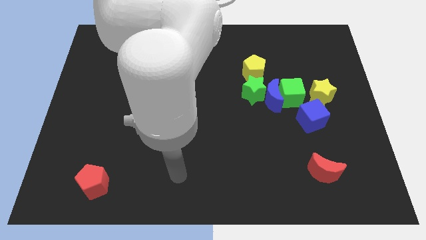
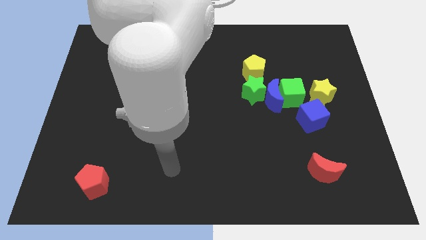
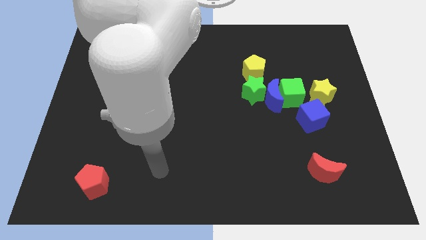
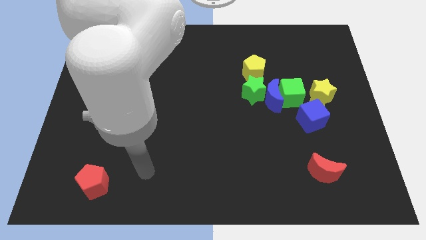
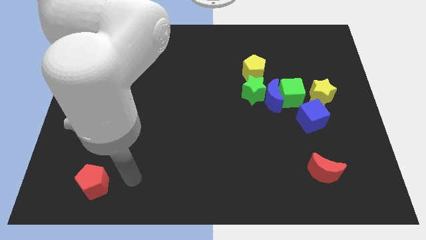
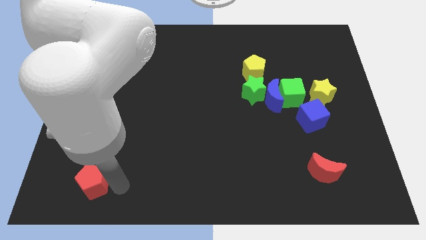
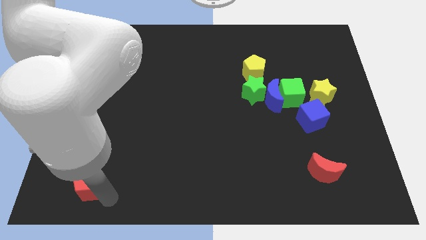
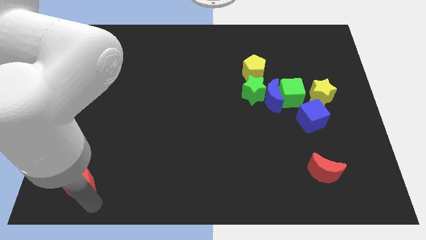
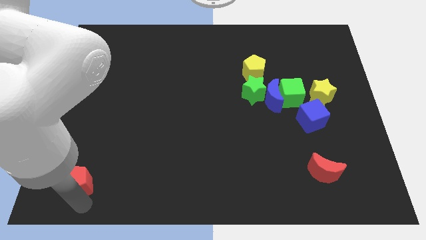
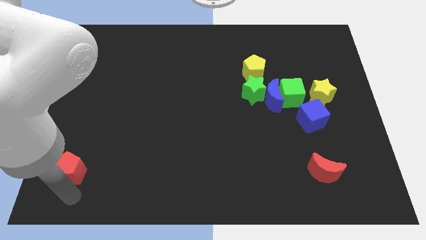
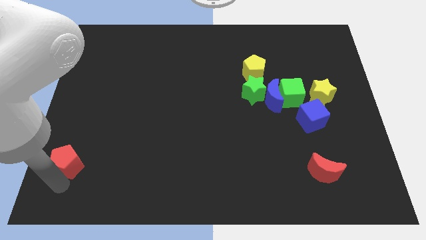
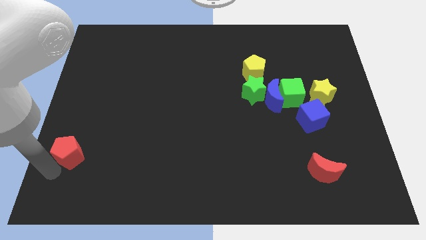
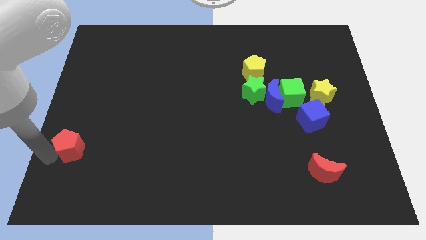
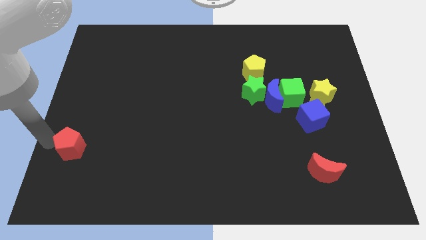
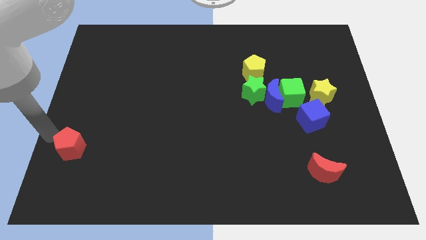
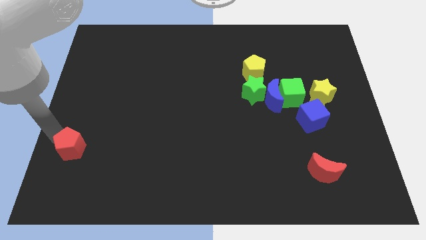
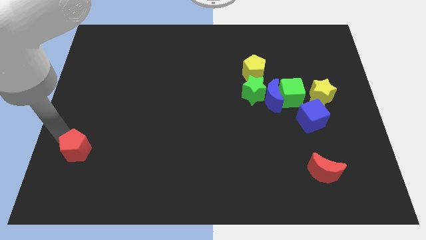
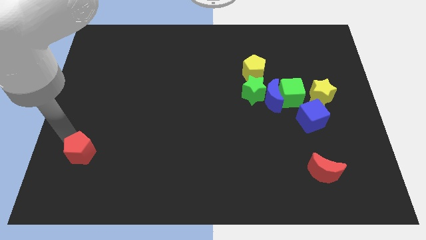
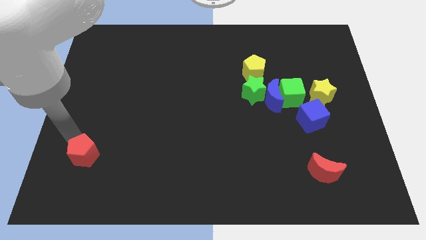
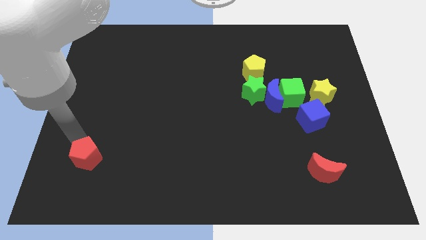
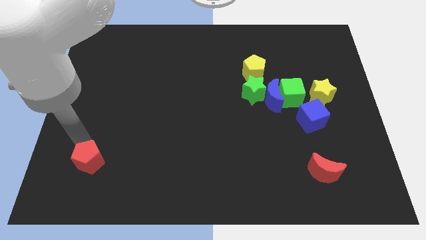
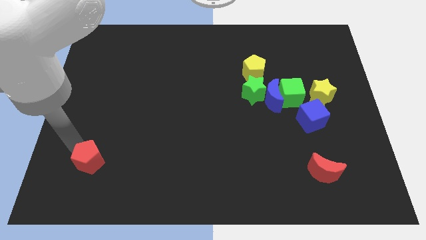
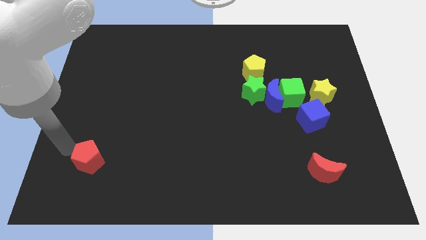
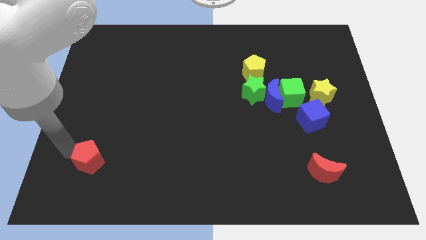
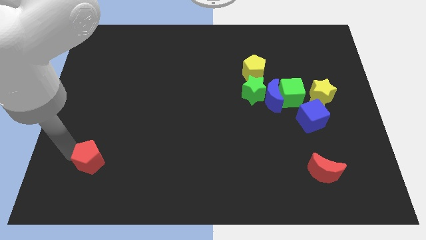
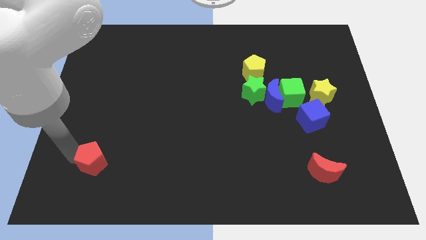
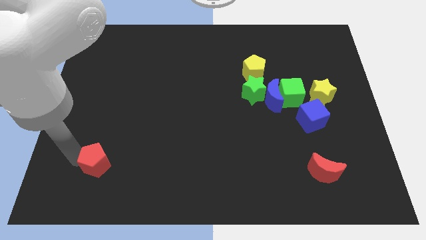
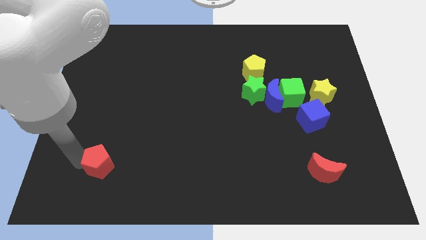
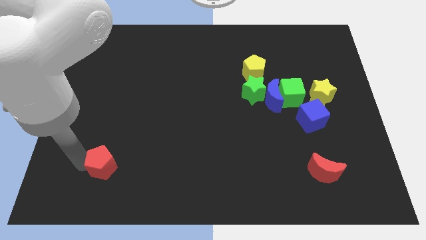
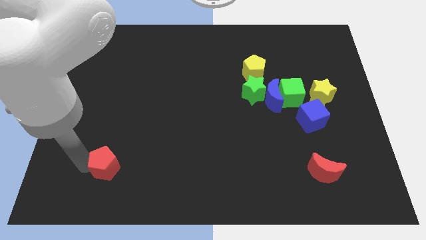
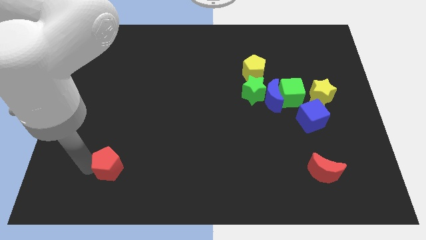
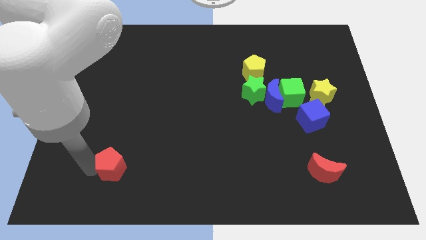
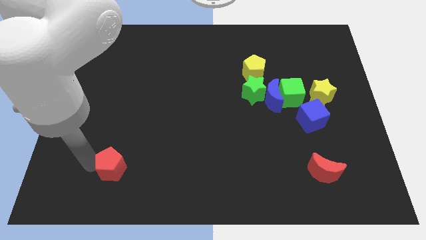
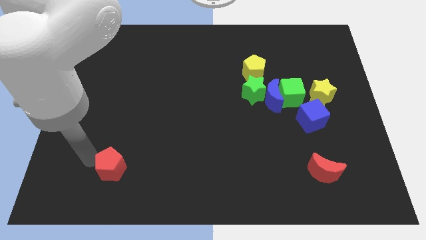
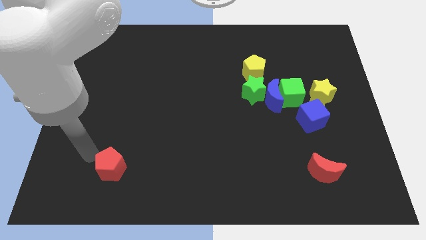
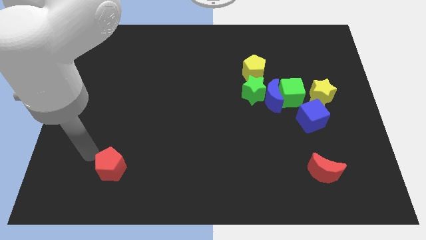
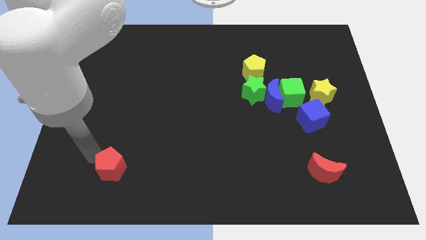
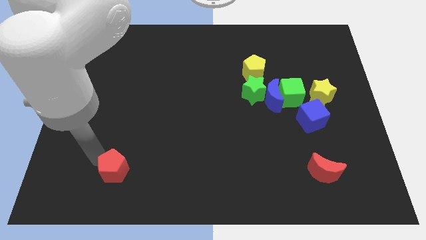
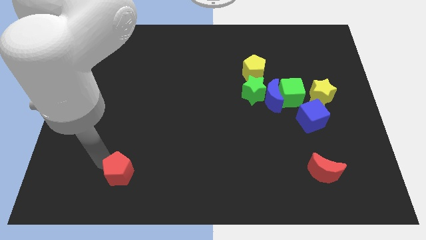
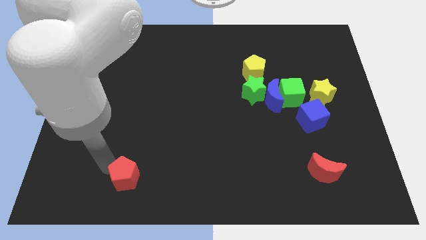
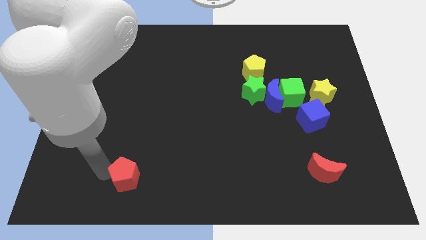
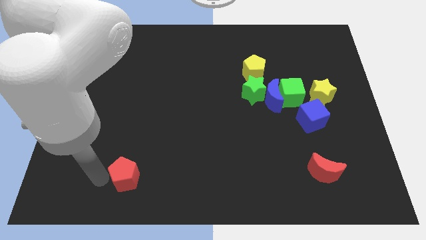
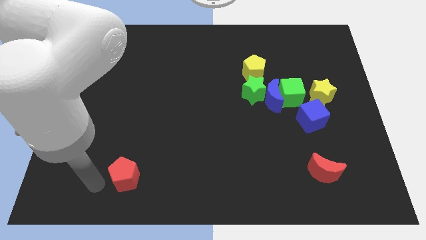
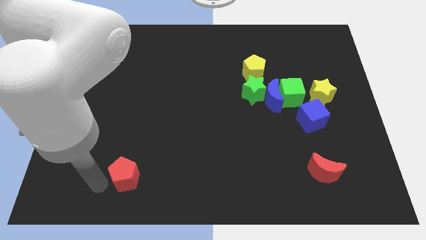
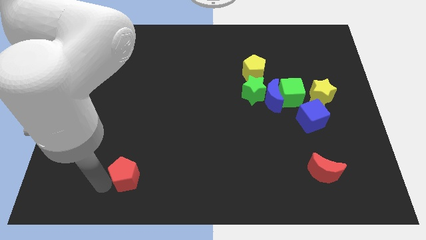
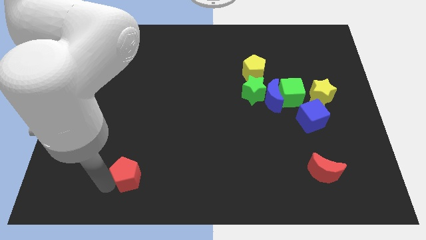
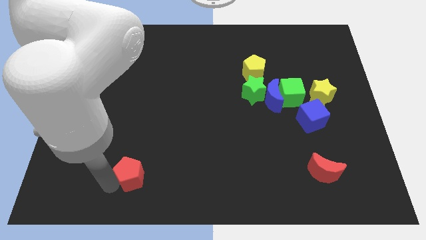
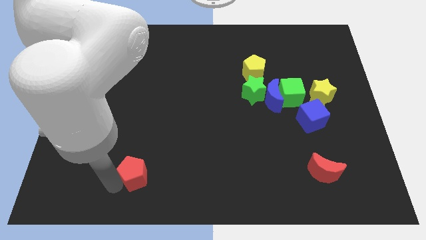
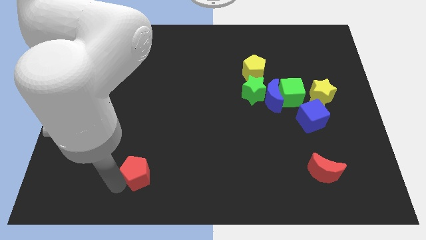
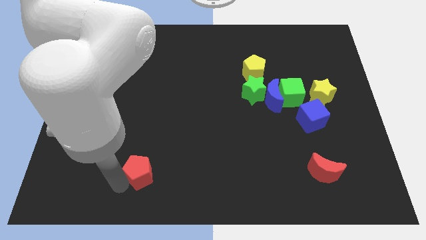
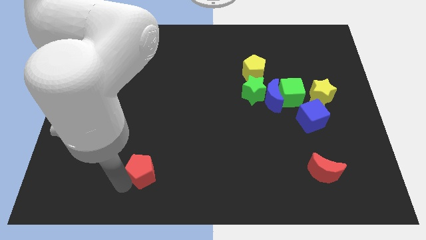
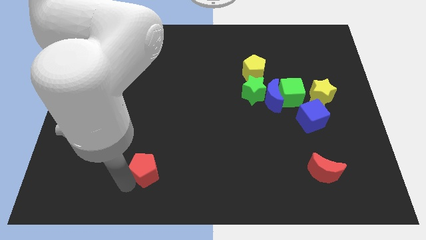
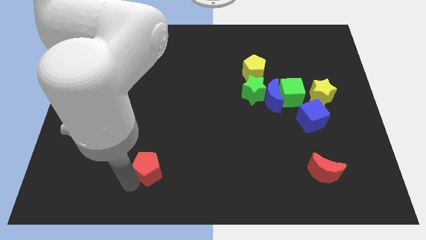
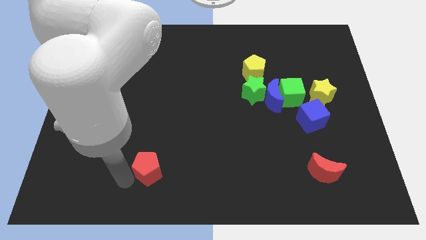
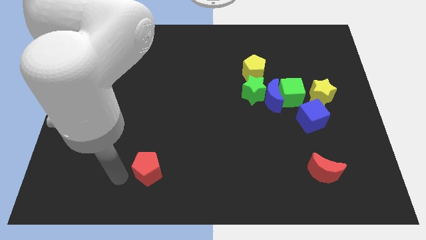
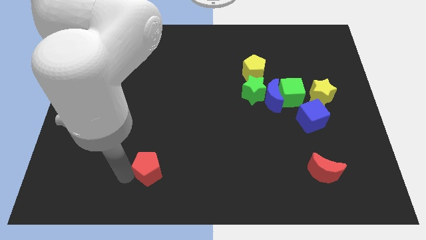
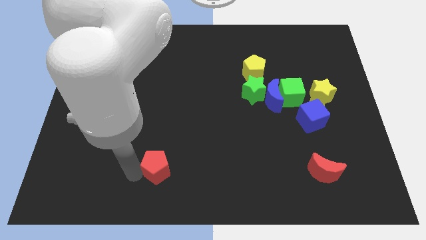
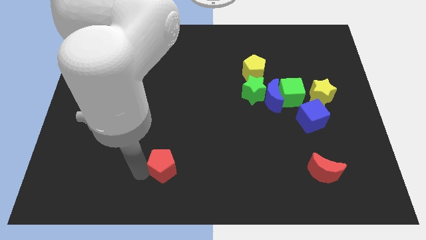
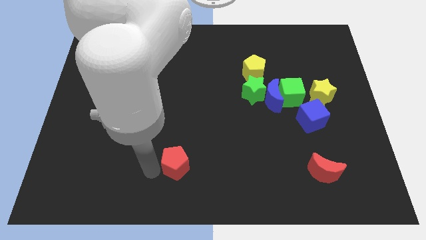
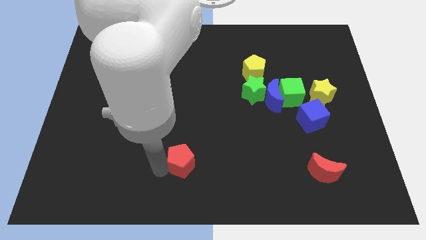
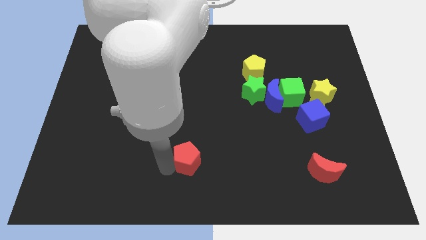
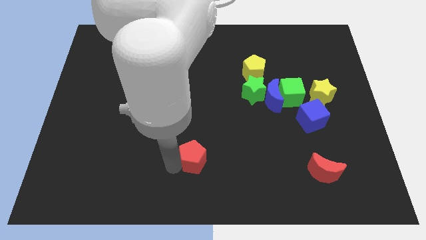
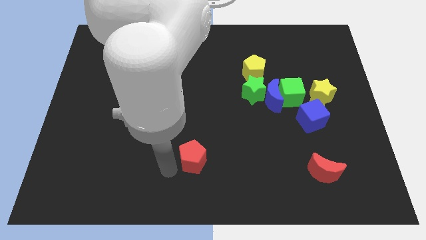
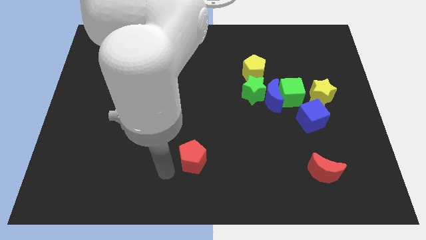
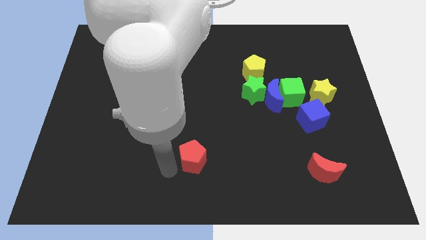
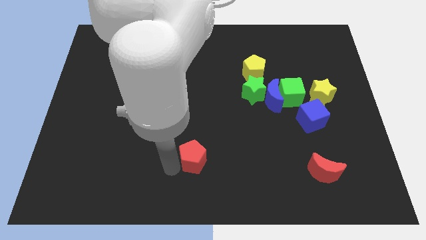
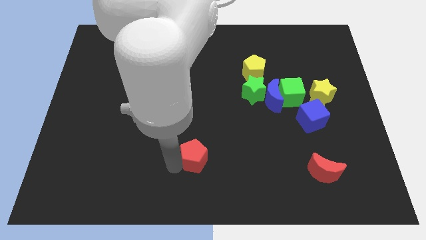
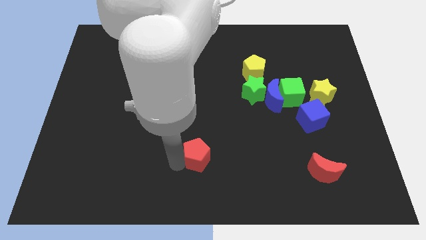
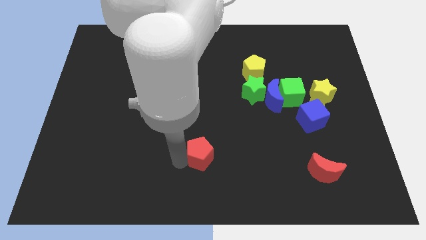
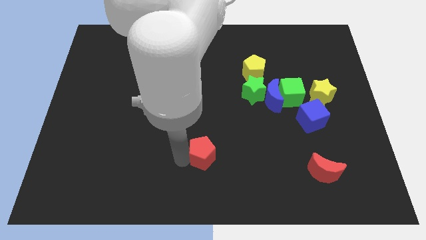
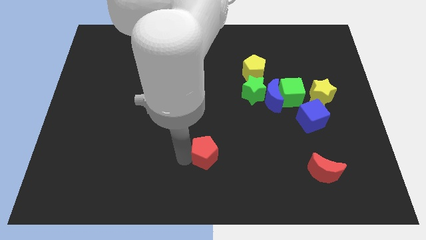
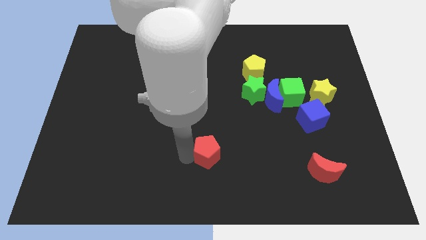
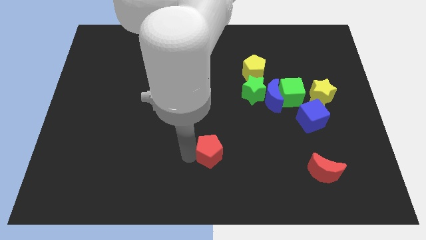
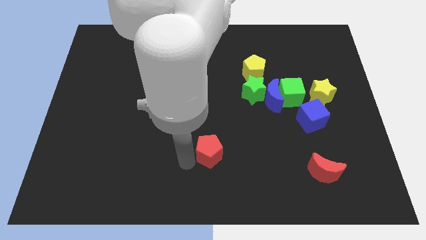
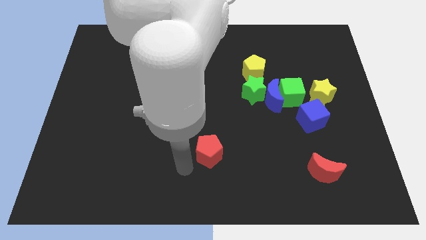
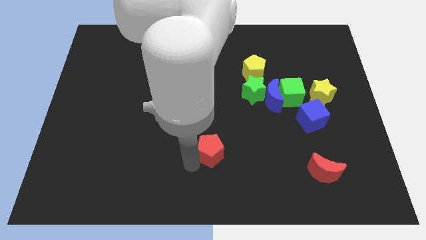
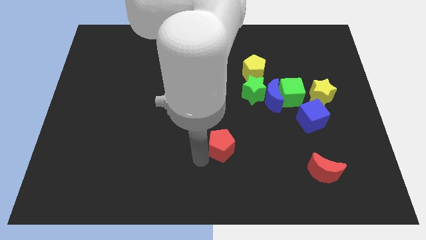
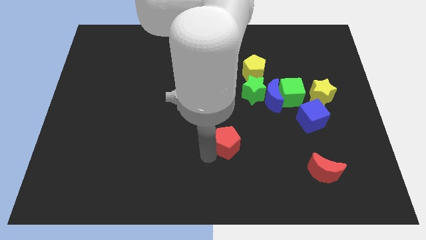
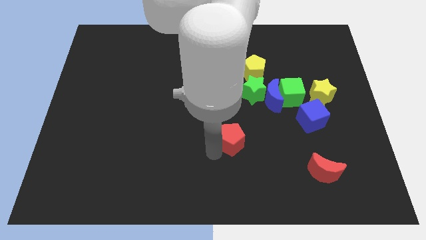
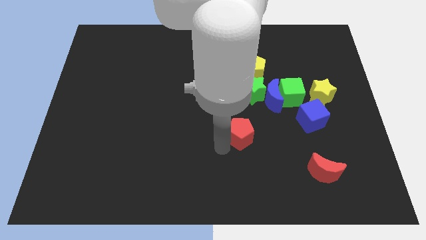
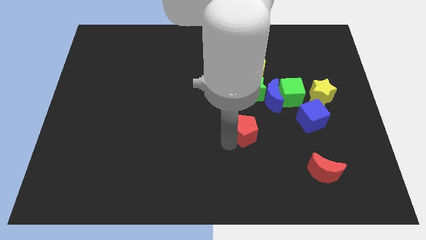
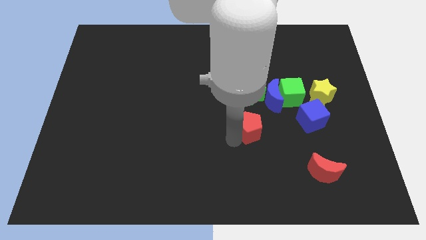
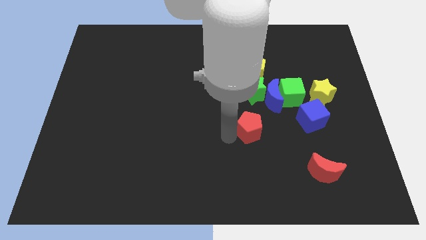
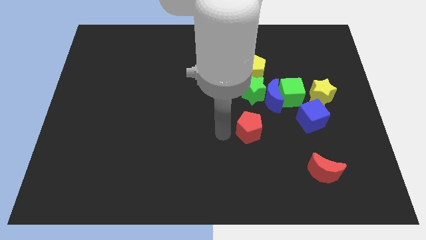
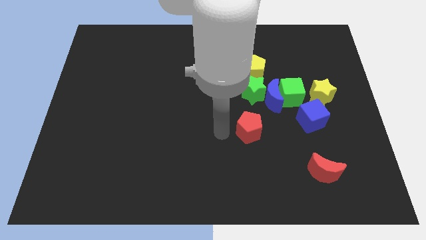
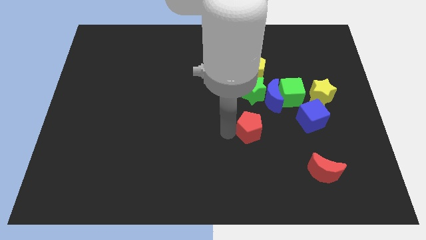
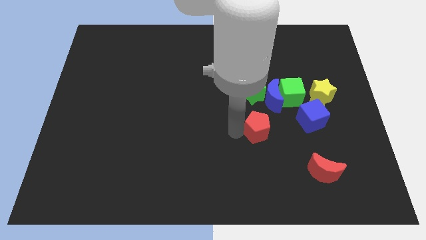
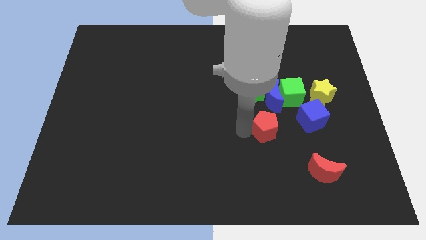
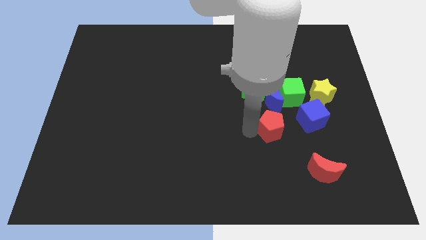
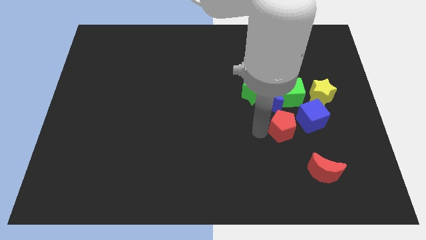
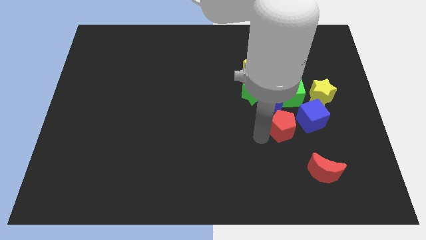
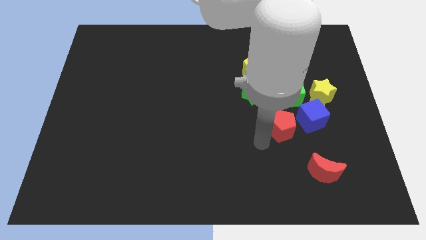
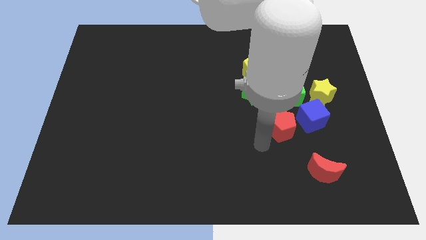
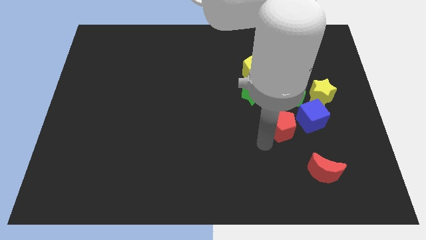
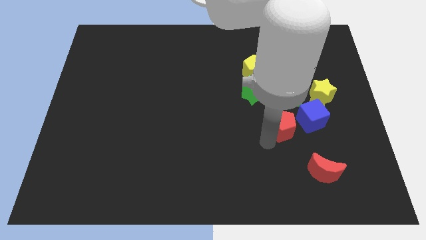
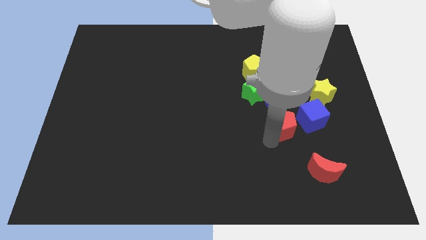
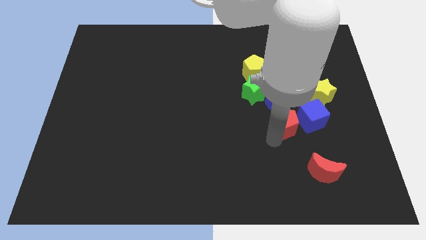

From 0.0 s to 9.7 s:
move the red pentagon diagonally down and to the left of the yellow star
